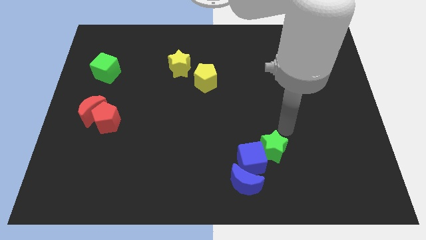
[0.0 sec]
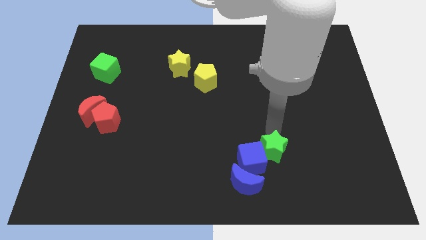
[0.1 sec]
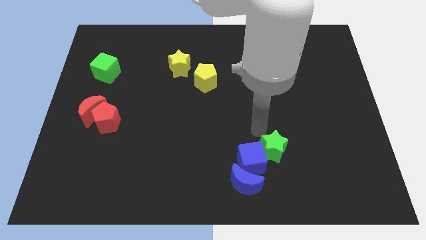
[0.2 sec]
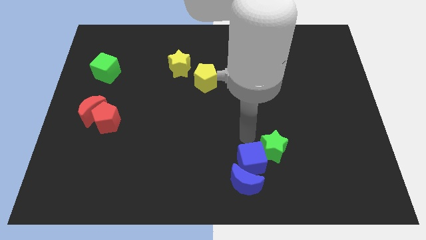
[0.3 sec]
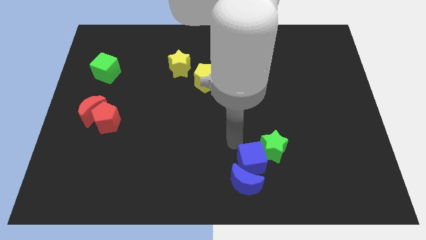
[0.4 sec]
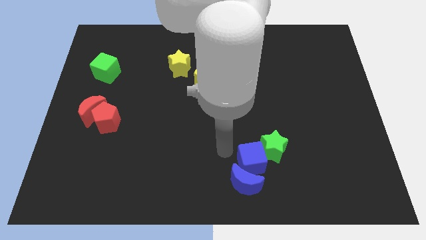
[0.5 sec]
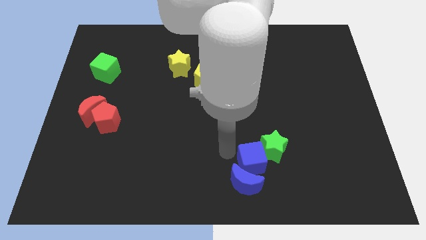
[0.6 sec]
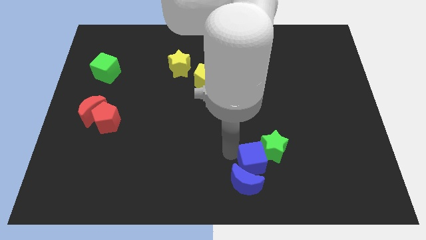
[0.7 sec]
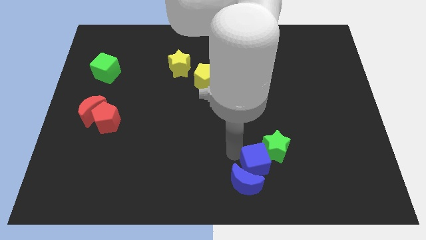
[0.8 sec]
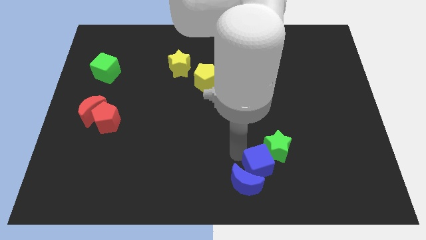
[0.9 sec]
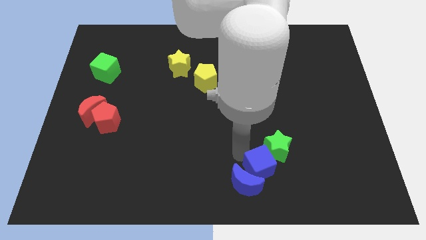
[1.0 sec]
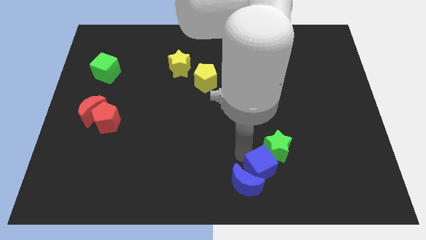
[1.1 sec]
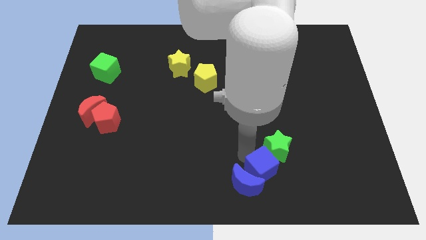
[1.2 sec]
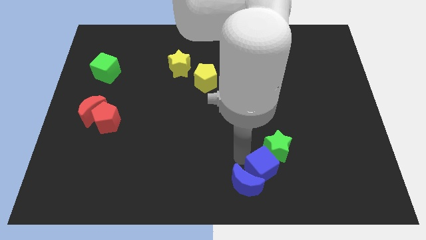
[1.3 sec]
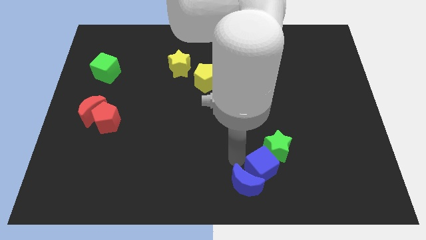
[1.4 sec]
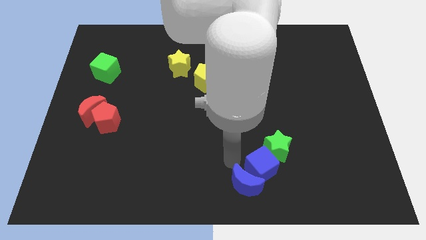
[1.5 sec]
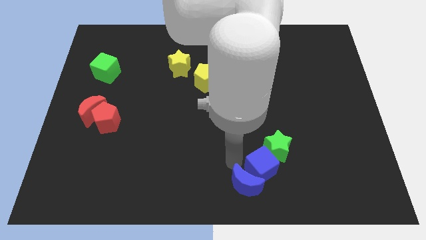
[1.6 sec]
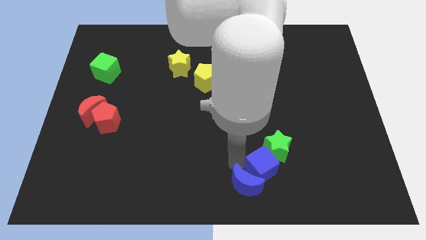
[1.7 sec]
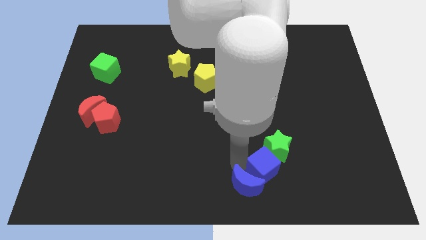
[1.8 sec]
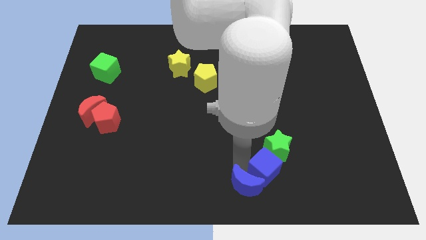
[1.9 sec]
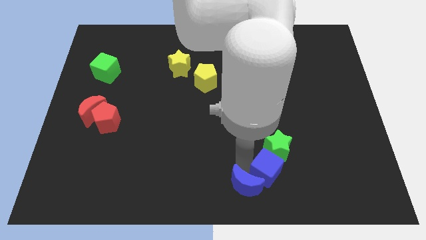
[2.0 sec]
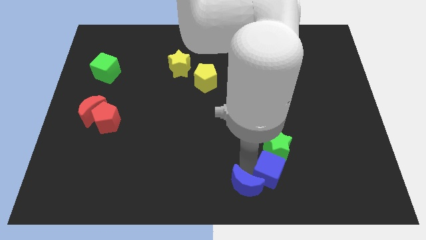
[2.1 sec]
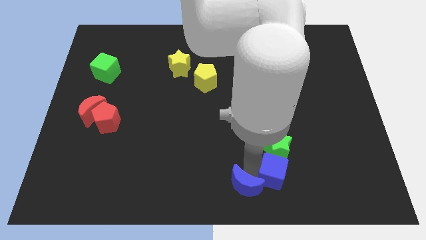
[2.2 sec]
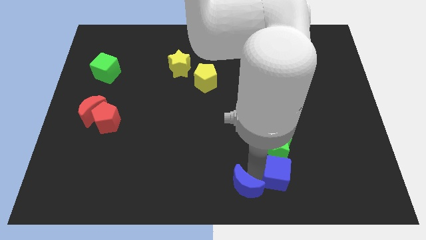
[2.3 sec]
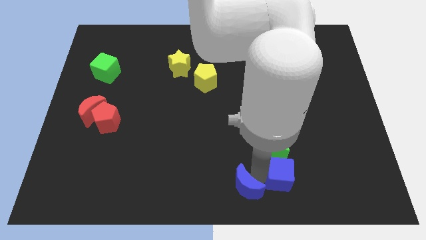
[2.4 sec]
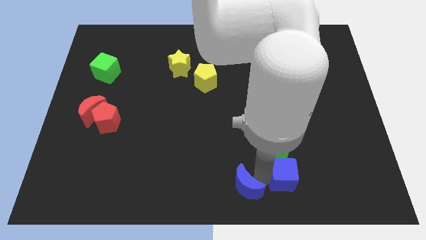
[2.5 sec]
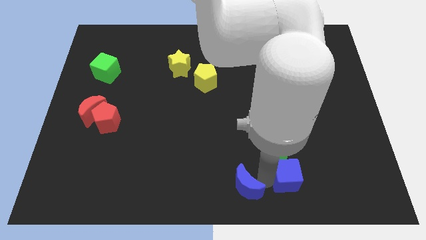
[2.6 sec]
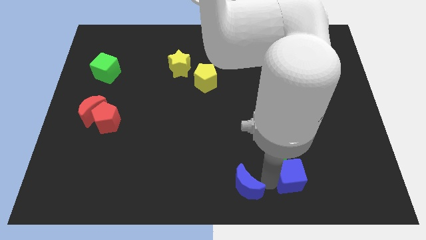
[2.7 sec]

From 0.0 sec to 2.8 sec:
push the blue cube somewhat right

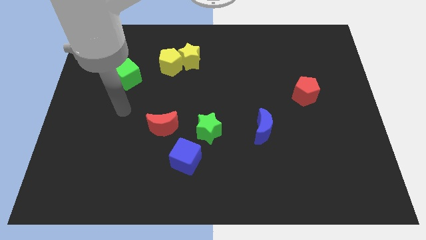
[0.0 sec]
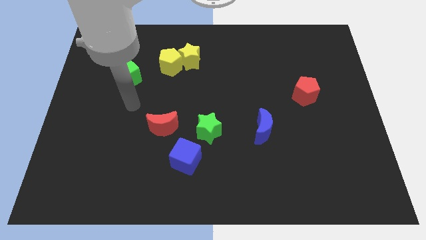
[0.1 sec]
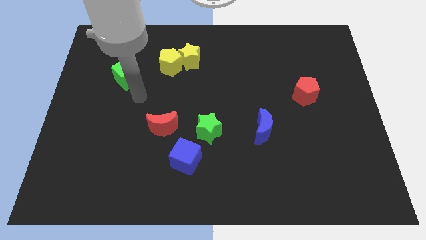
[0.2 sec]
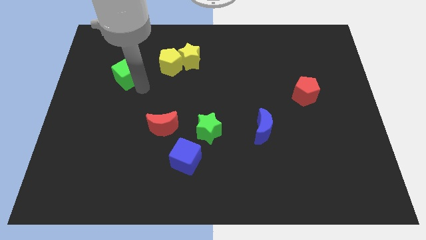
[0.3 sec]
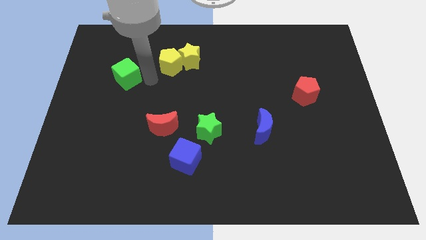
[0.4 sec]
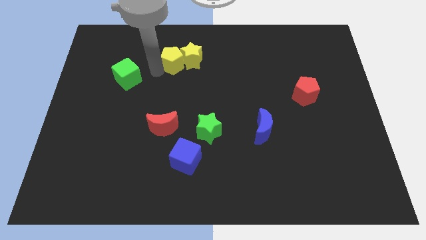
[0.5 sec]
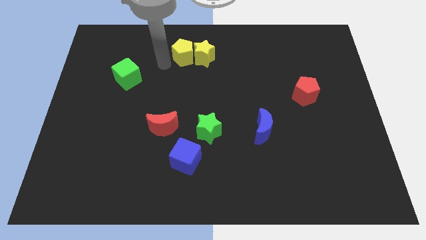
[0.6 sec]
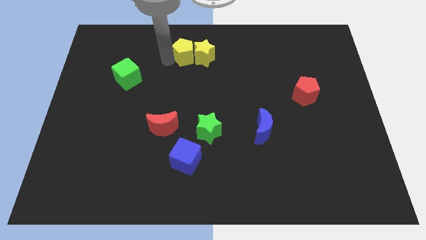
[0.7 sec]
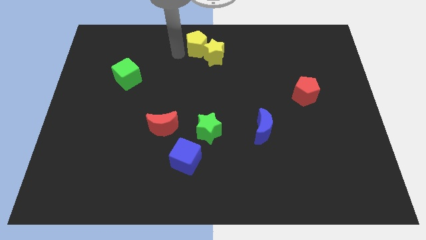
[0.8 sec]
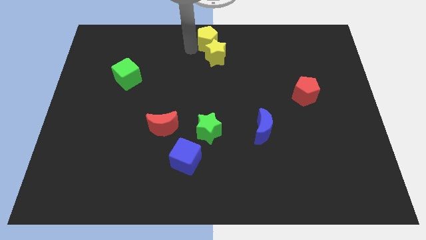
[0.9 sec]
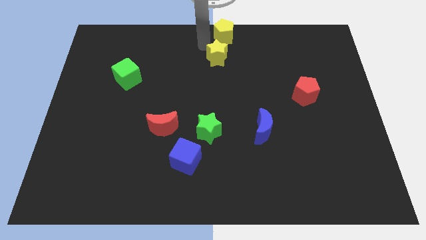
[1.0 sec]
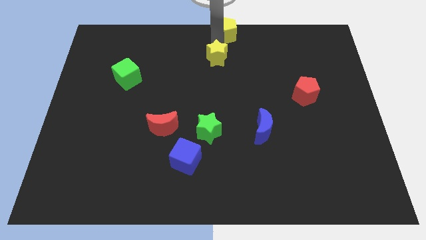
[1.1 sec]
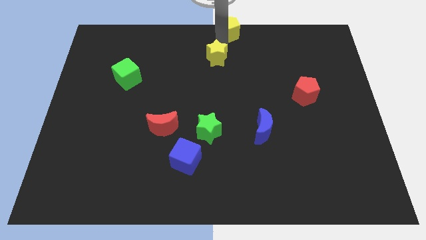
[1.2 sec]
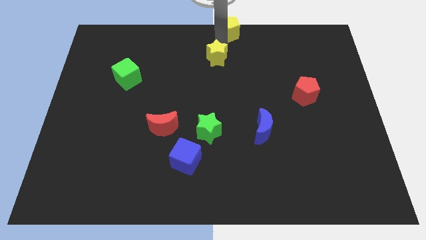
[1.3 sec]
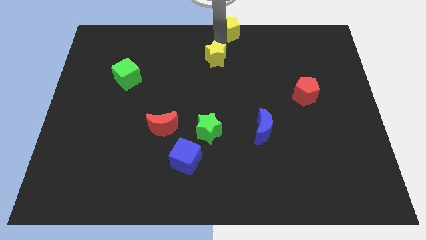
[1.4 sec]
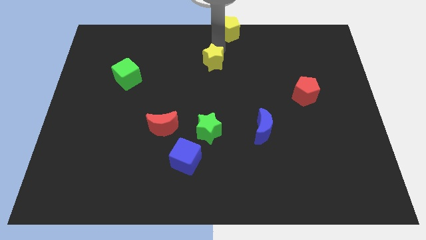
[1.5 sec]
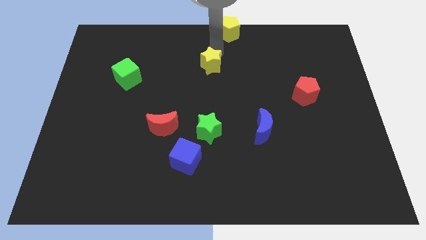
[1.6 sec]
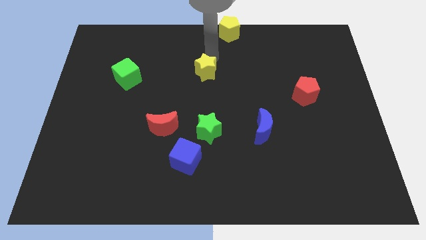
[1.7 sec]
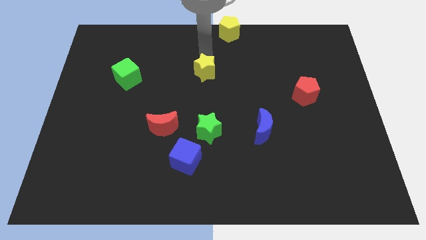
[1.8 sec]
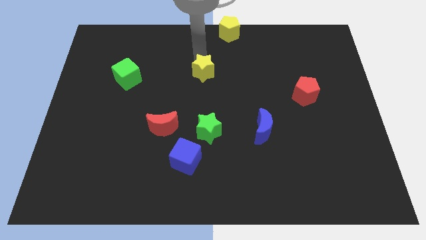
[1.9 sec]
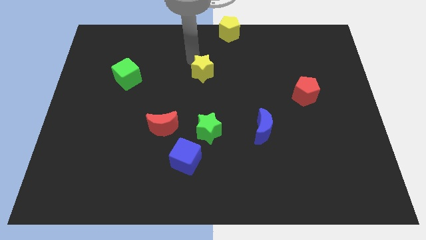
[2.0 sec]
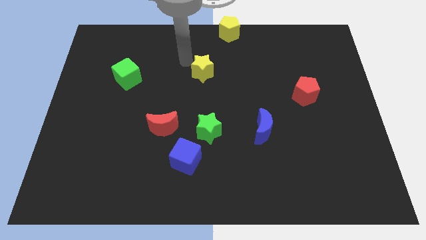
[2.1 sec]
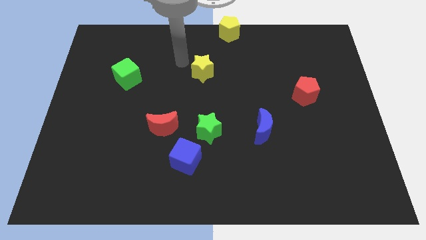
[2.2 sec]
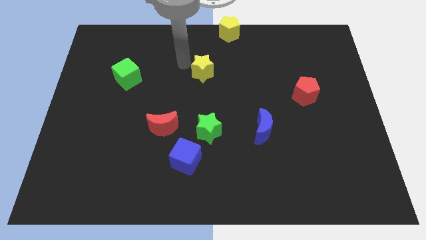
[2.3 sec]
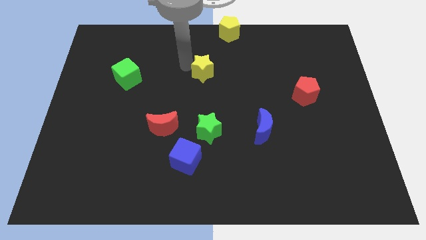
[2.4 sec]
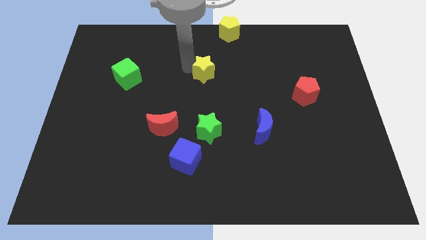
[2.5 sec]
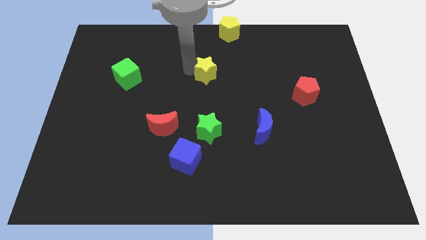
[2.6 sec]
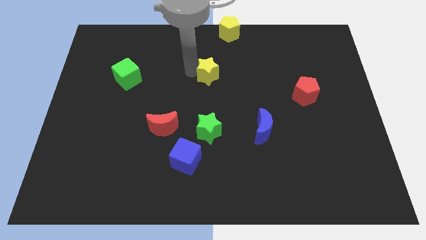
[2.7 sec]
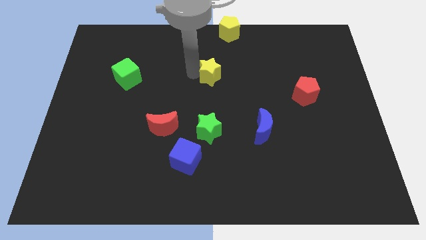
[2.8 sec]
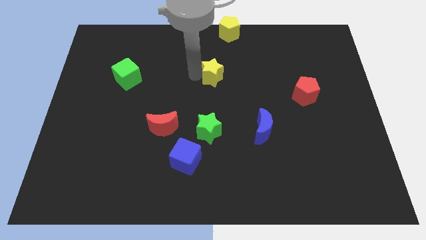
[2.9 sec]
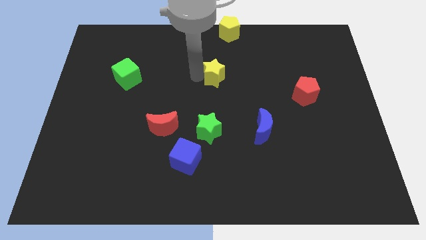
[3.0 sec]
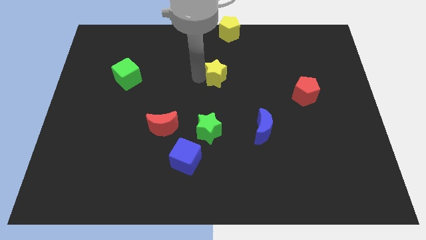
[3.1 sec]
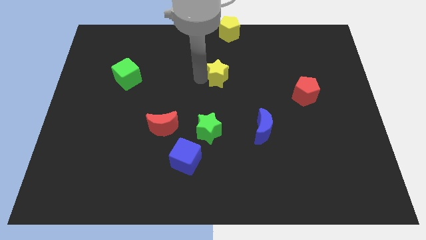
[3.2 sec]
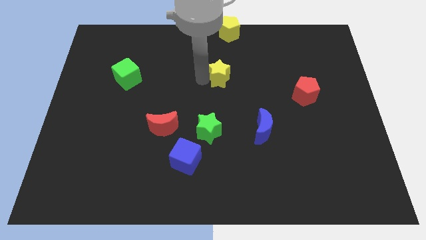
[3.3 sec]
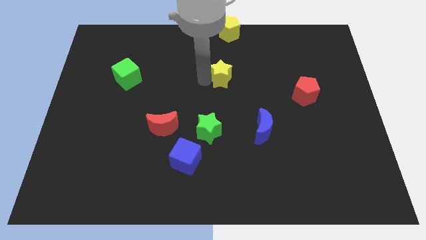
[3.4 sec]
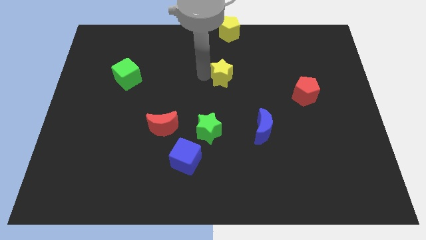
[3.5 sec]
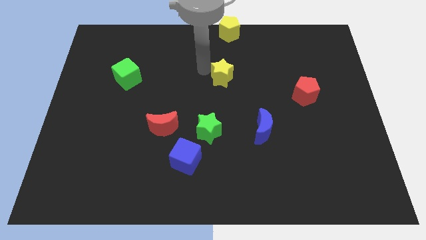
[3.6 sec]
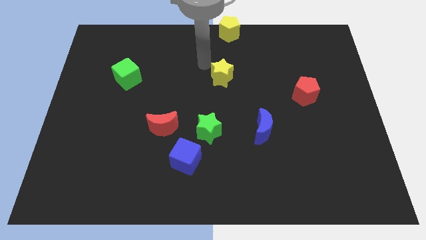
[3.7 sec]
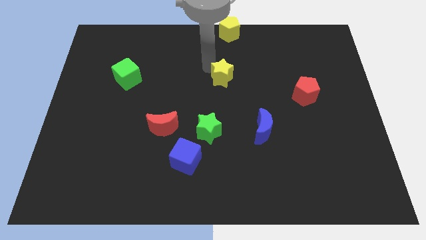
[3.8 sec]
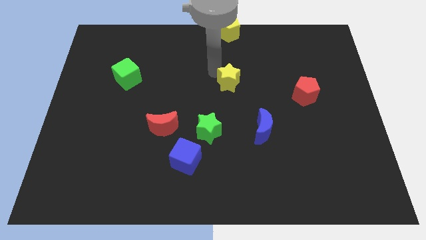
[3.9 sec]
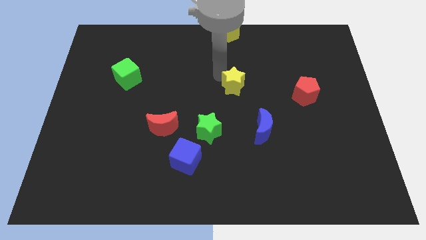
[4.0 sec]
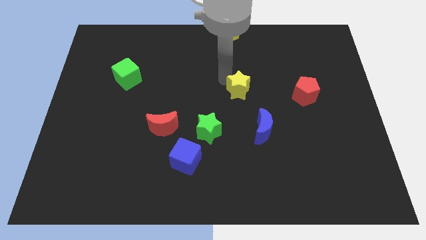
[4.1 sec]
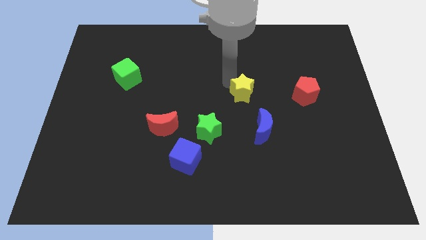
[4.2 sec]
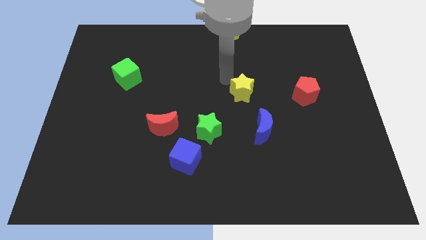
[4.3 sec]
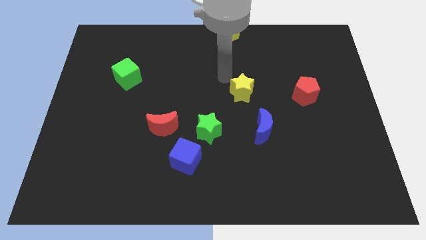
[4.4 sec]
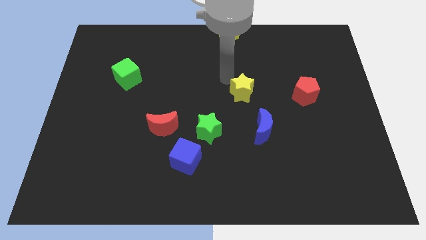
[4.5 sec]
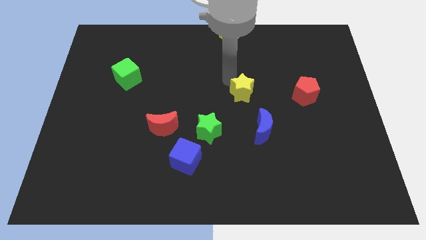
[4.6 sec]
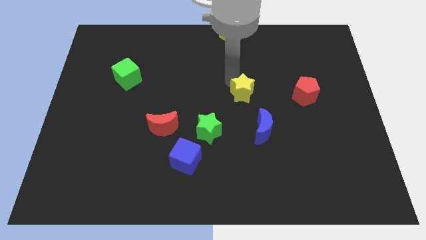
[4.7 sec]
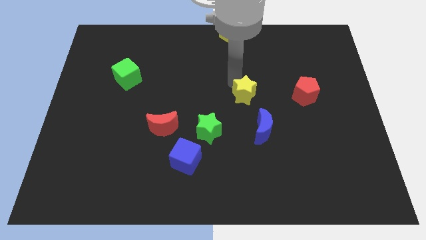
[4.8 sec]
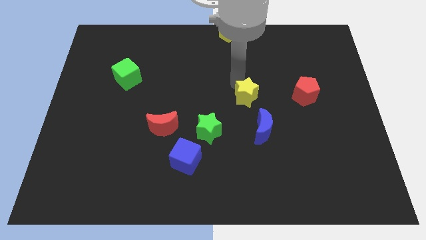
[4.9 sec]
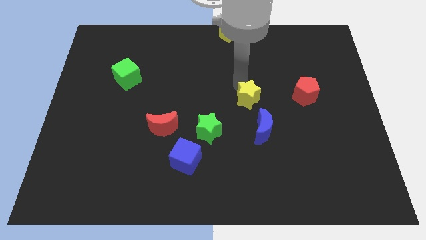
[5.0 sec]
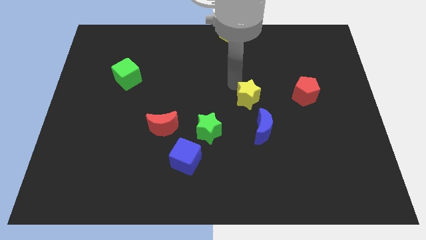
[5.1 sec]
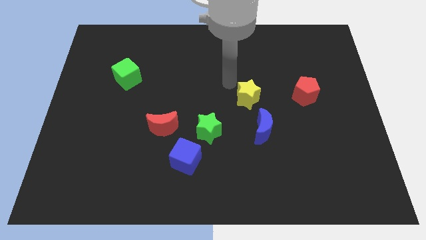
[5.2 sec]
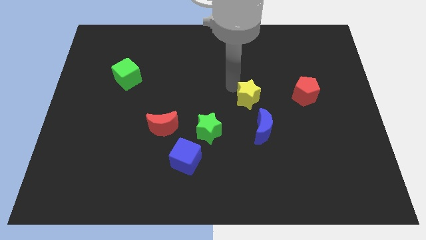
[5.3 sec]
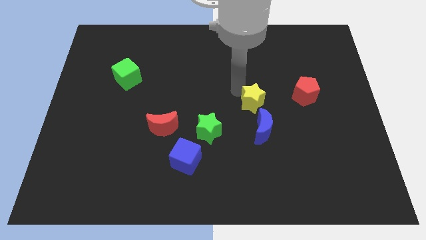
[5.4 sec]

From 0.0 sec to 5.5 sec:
push the yellow star downwards and right
